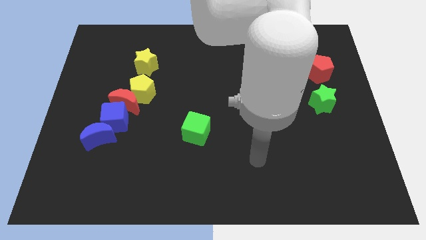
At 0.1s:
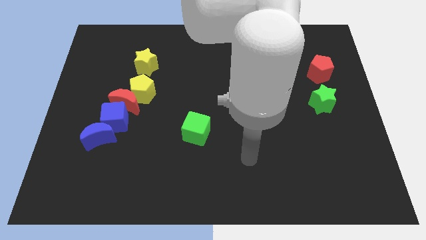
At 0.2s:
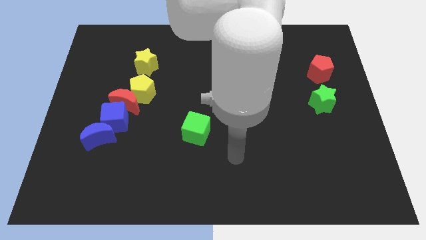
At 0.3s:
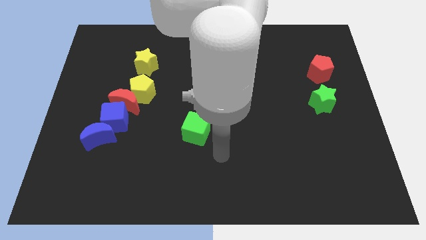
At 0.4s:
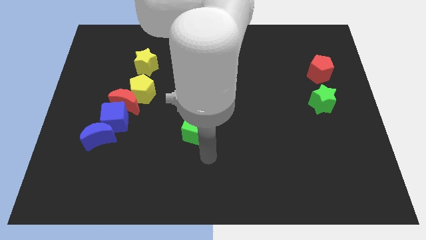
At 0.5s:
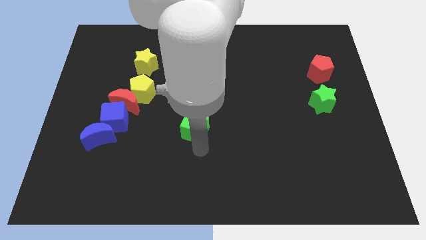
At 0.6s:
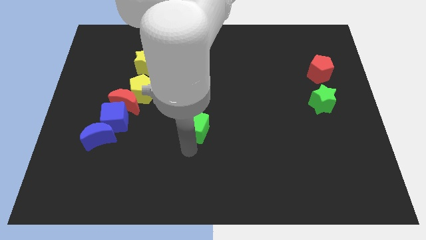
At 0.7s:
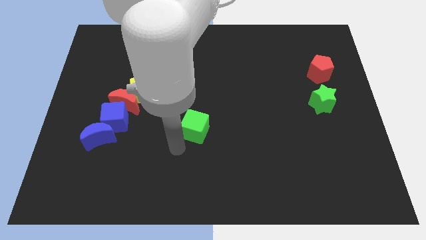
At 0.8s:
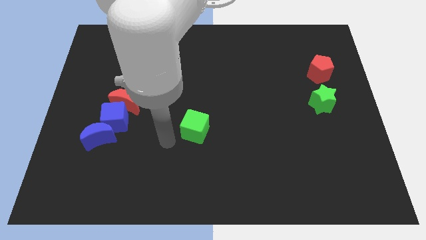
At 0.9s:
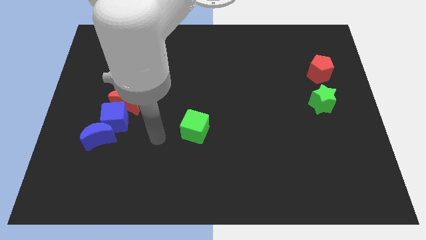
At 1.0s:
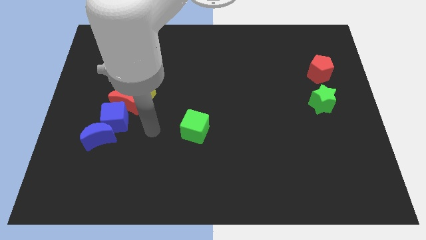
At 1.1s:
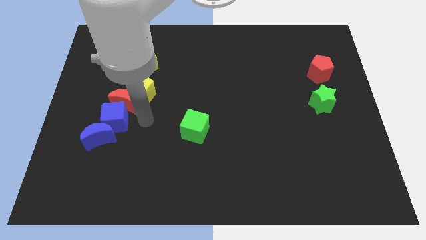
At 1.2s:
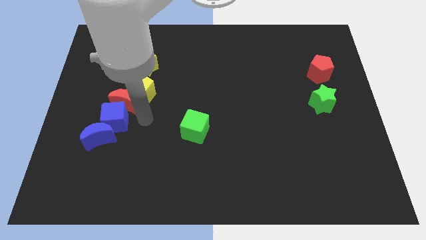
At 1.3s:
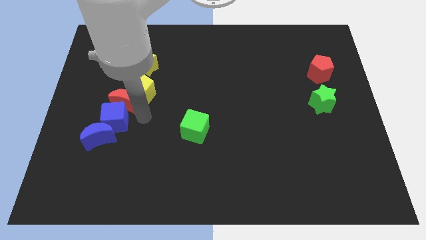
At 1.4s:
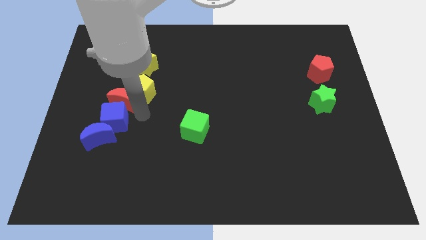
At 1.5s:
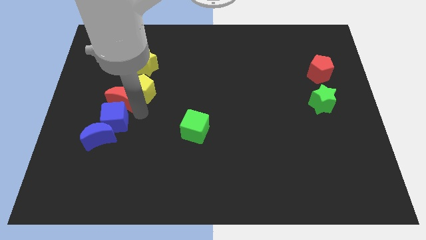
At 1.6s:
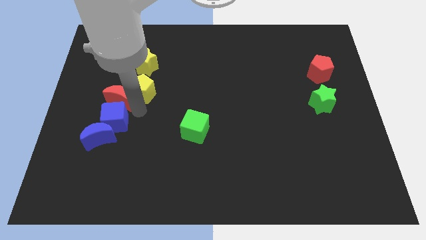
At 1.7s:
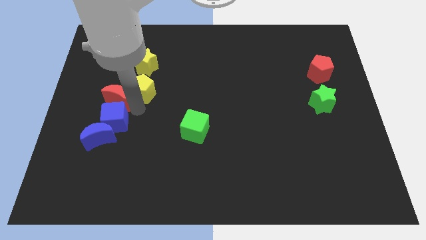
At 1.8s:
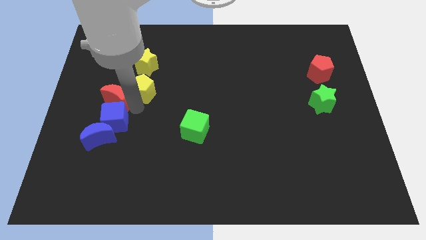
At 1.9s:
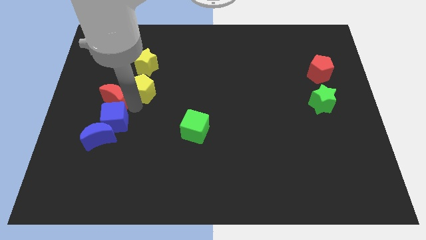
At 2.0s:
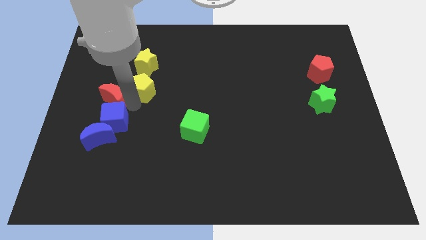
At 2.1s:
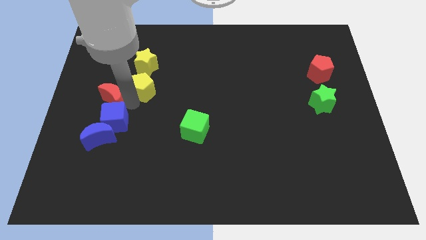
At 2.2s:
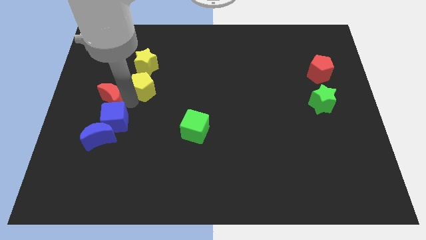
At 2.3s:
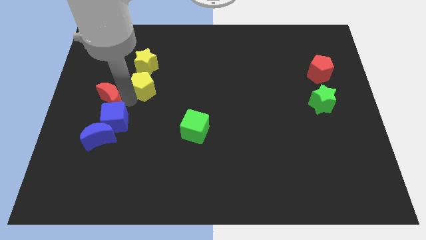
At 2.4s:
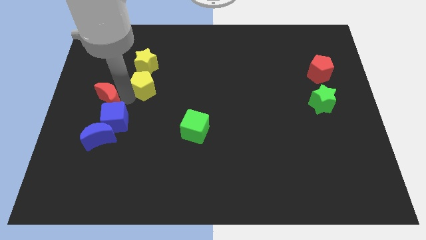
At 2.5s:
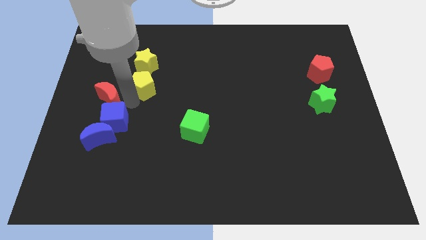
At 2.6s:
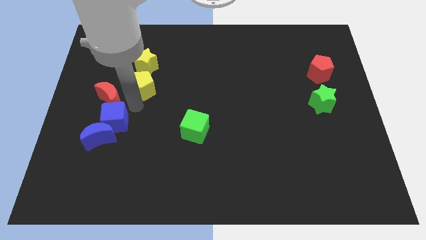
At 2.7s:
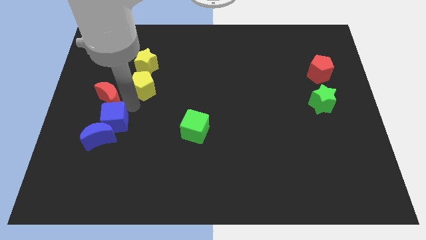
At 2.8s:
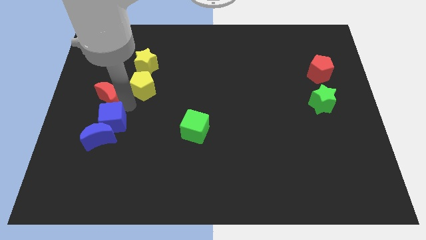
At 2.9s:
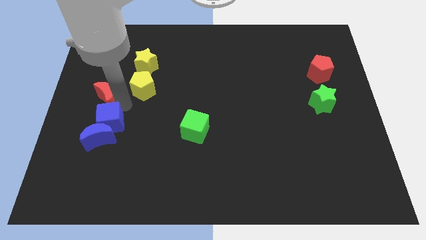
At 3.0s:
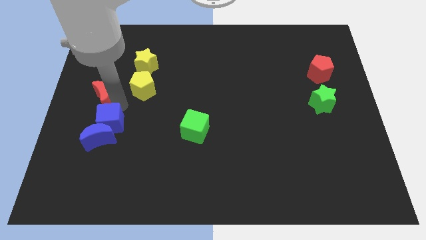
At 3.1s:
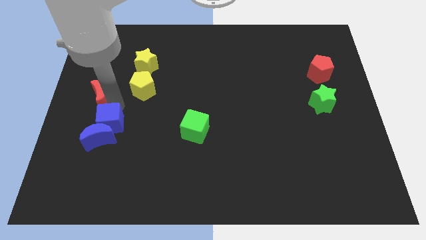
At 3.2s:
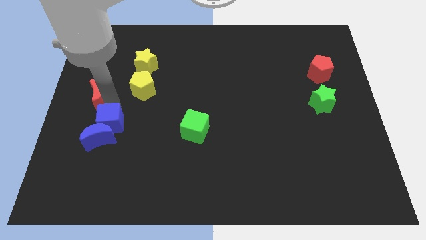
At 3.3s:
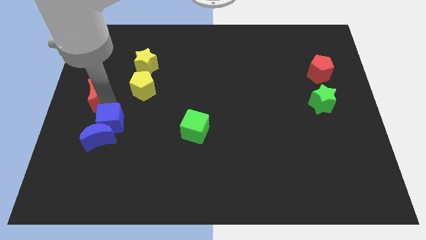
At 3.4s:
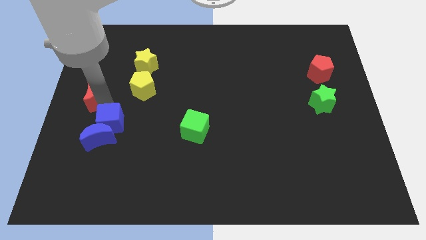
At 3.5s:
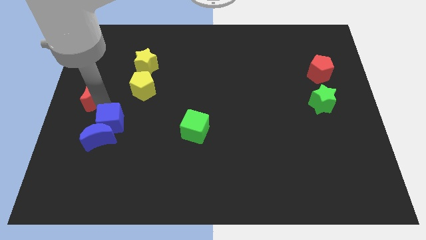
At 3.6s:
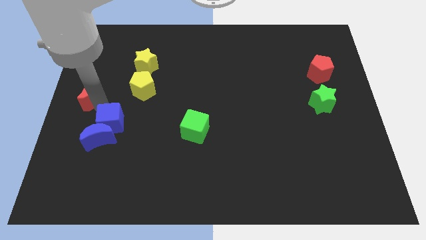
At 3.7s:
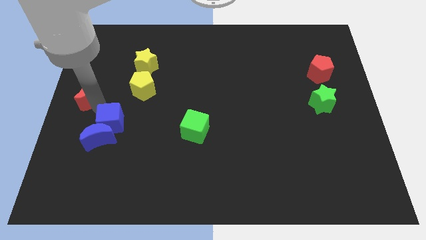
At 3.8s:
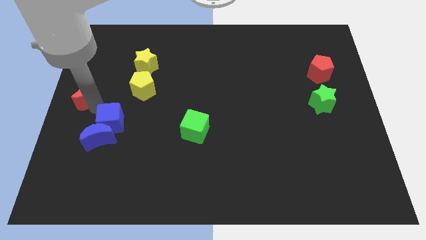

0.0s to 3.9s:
separate the red moon from the yellow pentagon and blue cube

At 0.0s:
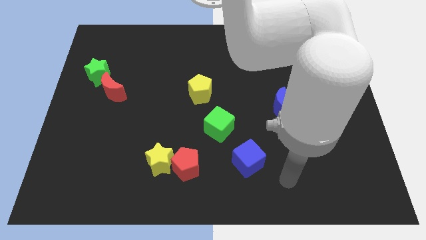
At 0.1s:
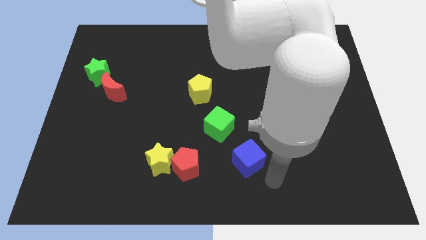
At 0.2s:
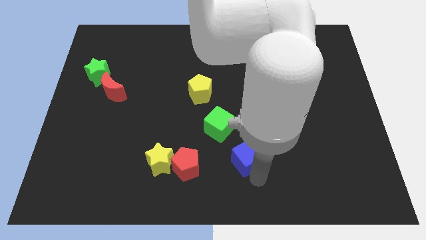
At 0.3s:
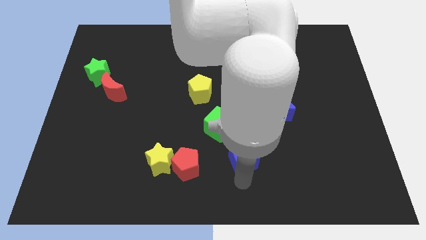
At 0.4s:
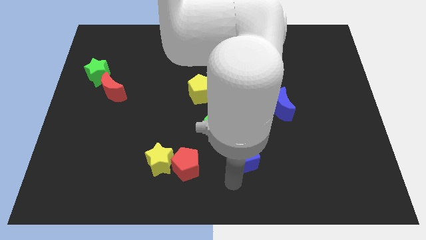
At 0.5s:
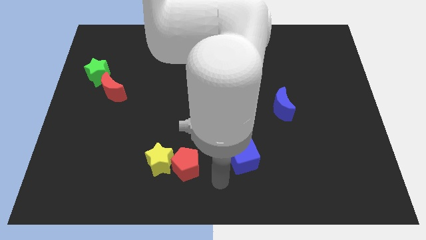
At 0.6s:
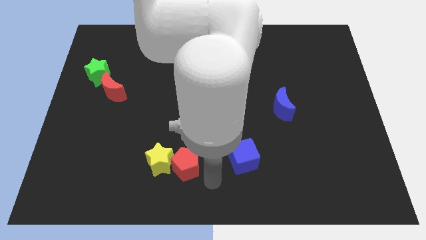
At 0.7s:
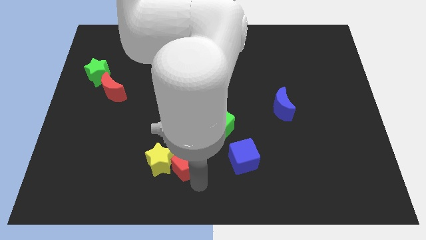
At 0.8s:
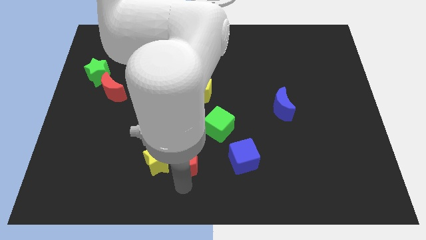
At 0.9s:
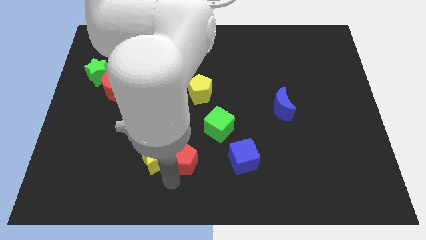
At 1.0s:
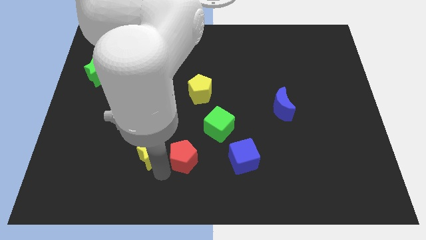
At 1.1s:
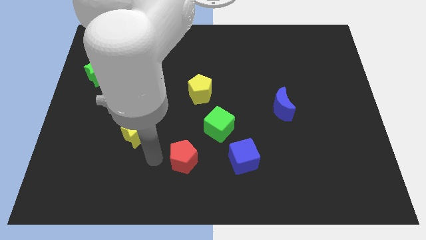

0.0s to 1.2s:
move the red pentagon away from the yellow star

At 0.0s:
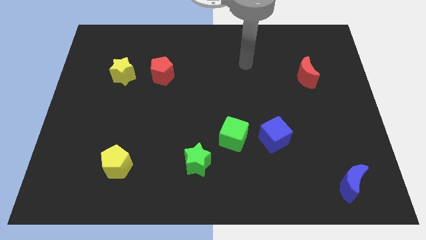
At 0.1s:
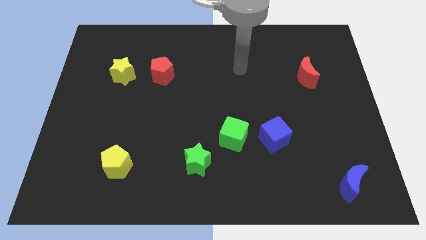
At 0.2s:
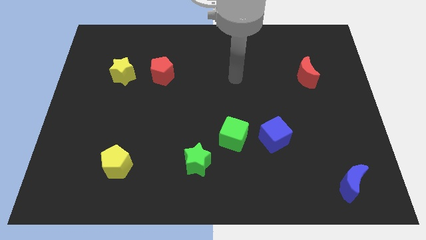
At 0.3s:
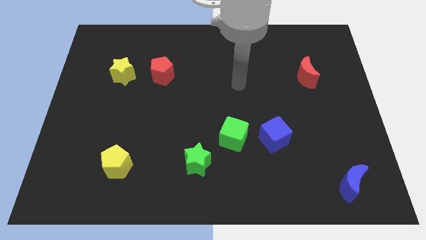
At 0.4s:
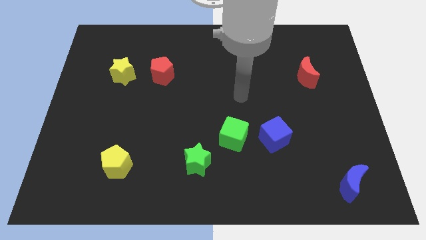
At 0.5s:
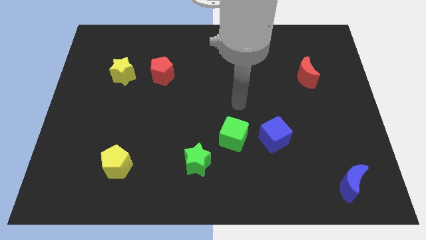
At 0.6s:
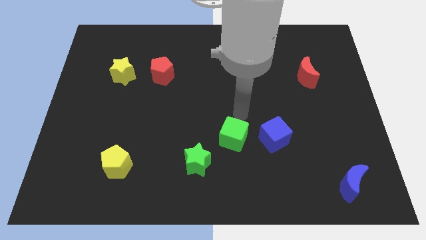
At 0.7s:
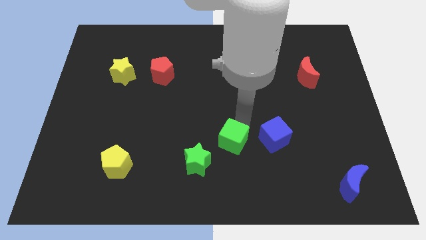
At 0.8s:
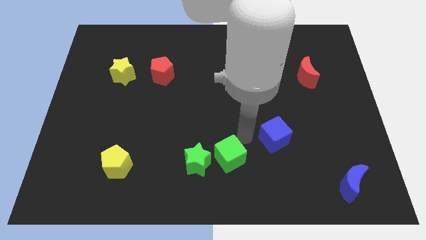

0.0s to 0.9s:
separate the blue cube from the green cube

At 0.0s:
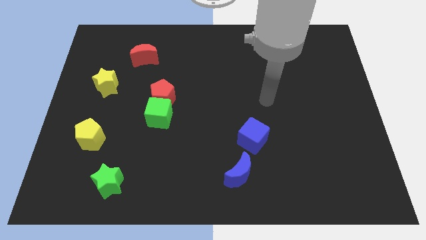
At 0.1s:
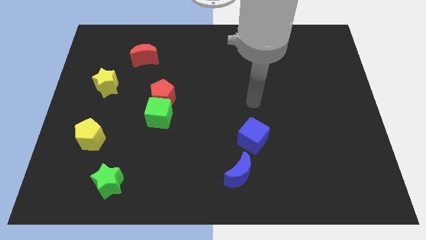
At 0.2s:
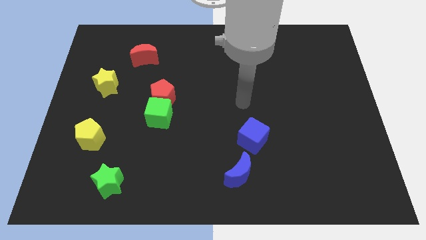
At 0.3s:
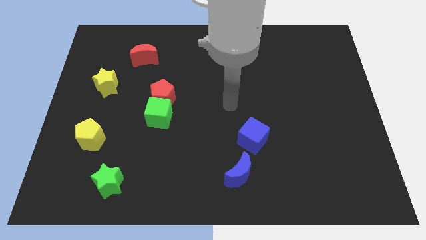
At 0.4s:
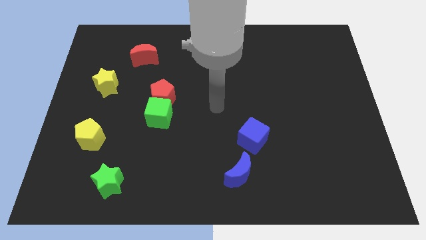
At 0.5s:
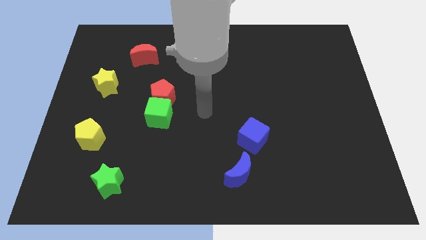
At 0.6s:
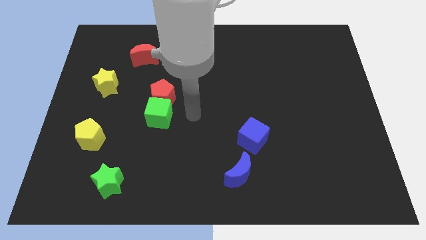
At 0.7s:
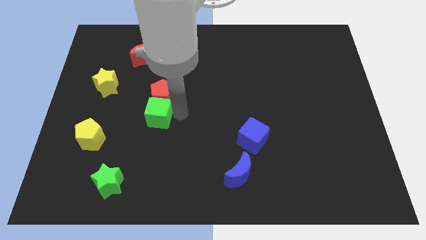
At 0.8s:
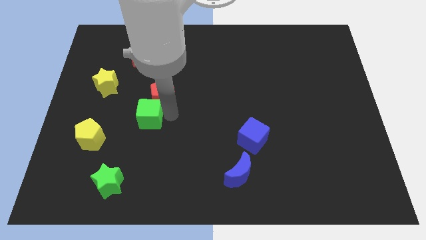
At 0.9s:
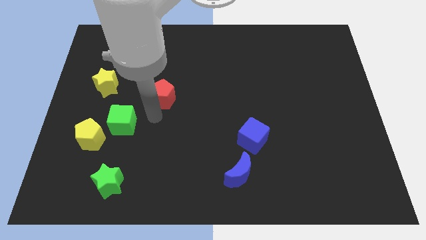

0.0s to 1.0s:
separate the red pentagon from the green cube

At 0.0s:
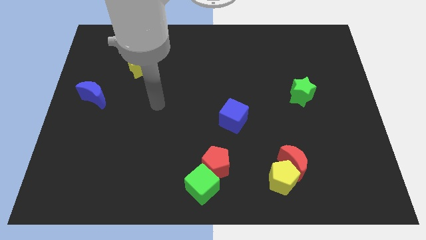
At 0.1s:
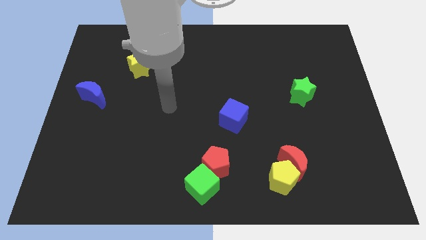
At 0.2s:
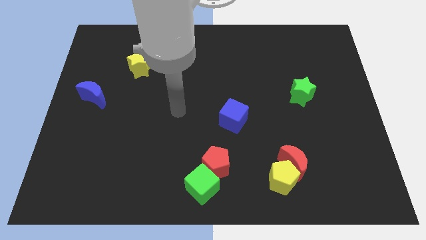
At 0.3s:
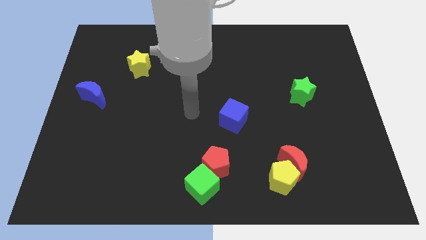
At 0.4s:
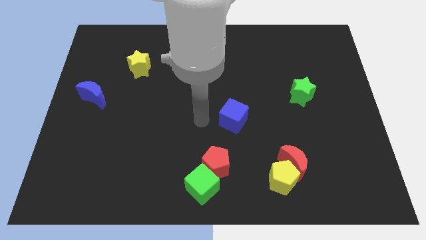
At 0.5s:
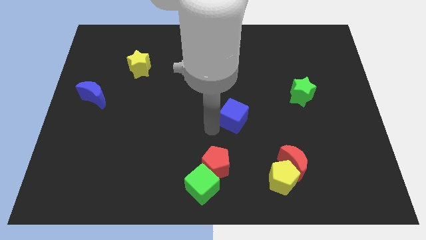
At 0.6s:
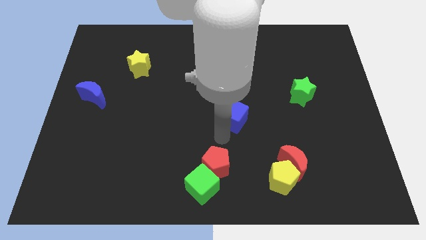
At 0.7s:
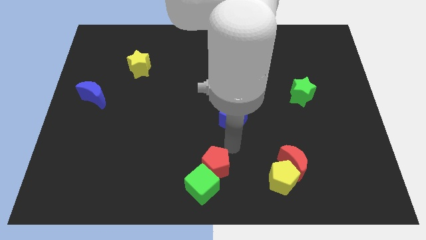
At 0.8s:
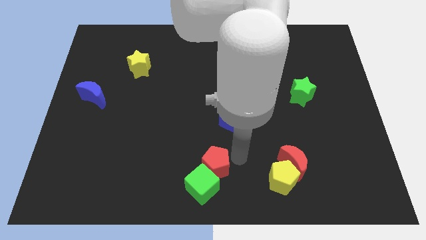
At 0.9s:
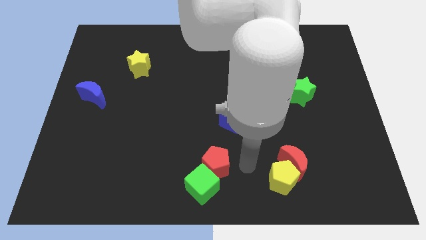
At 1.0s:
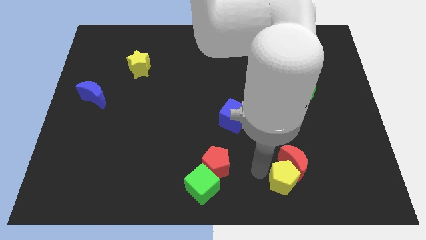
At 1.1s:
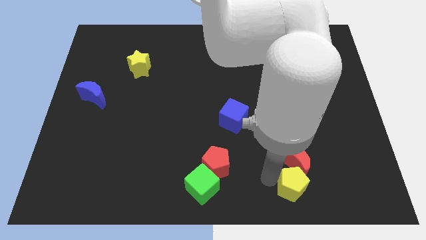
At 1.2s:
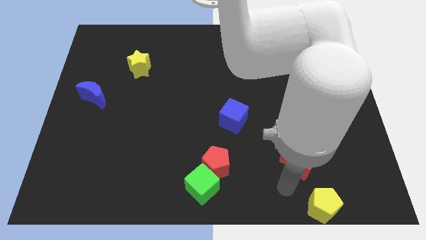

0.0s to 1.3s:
pull the red moon apart from the yellow pentagon

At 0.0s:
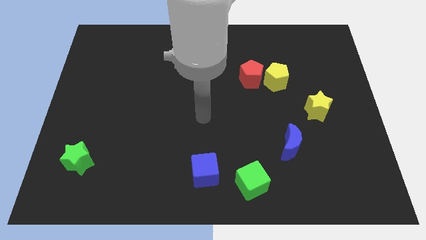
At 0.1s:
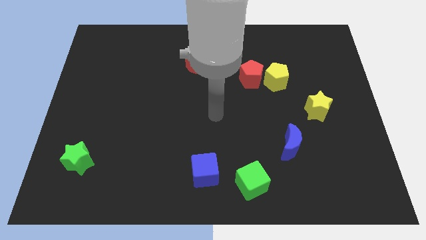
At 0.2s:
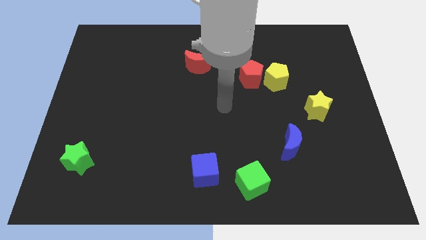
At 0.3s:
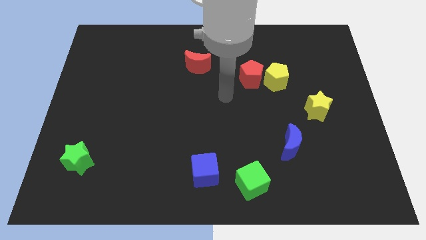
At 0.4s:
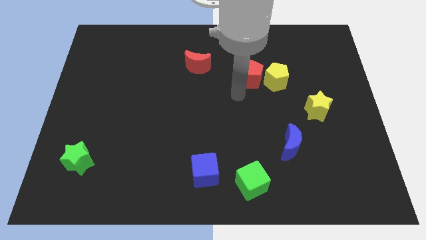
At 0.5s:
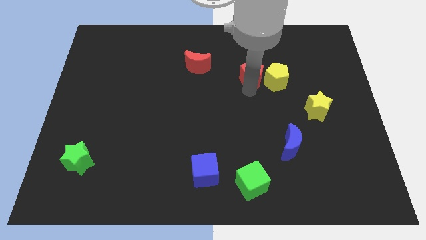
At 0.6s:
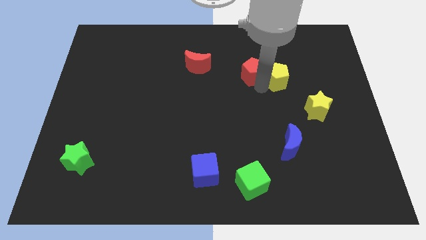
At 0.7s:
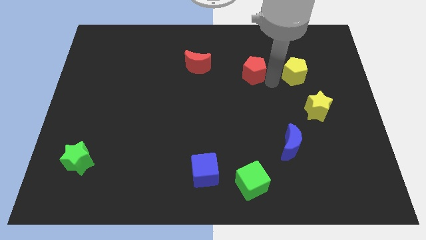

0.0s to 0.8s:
separate the red pentagon from the yellow pentagon

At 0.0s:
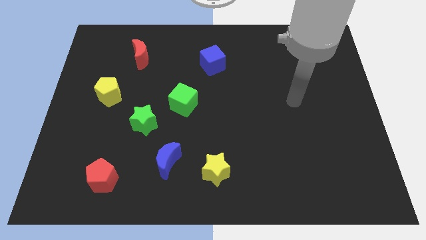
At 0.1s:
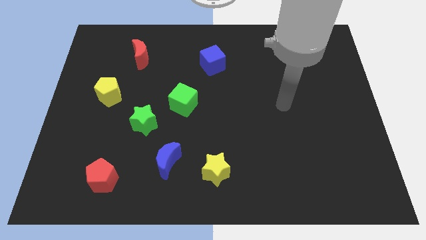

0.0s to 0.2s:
move the blue moon away from the yellow star
